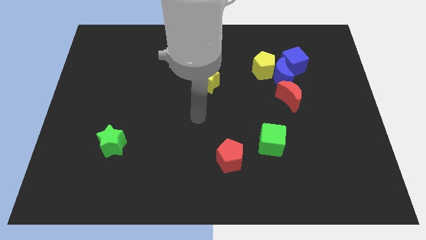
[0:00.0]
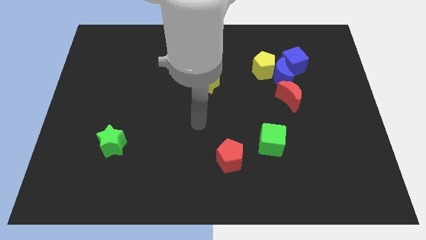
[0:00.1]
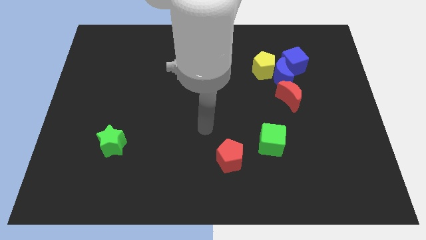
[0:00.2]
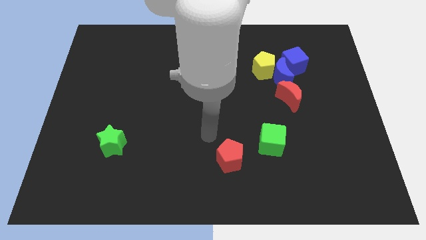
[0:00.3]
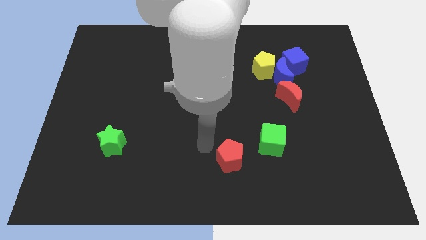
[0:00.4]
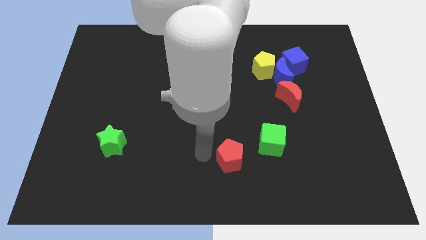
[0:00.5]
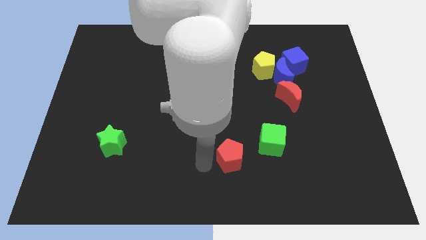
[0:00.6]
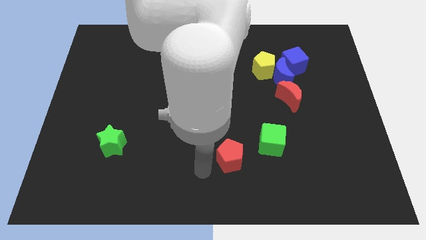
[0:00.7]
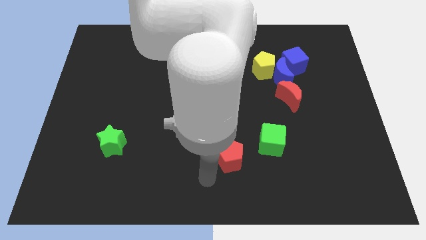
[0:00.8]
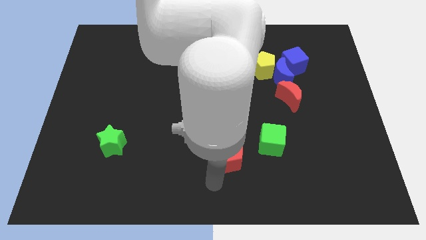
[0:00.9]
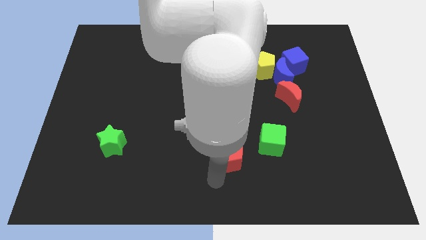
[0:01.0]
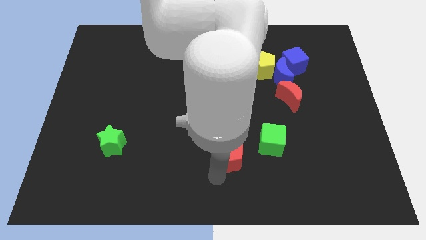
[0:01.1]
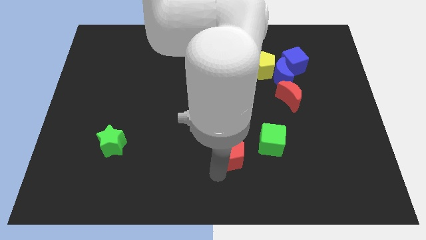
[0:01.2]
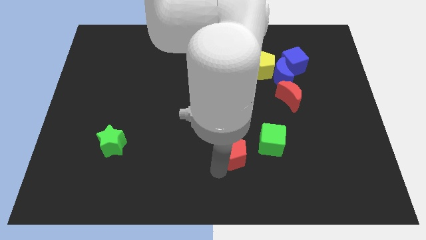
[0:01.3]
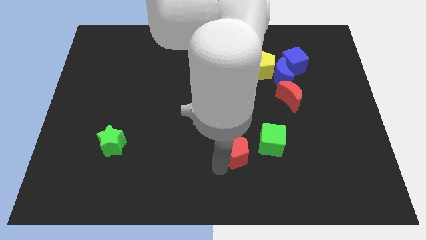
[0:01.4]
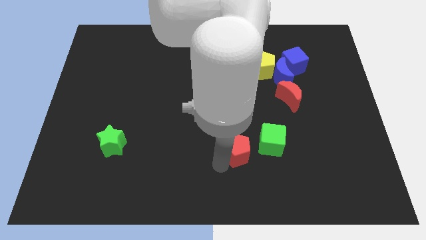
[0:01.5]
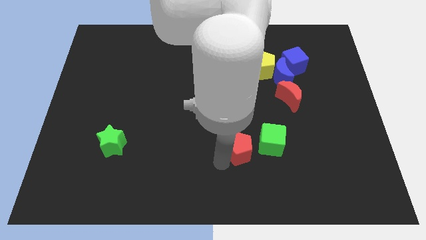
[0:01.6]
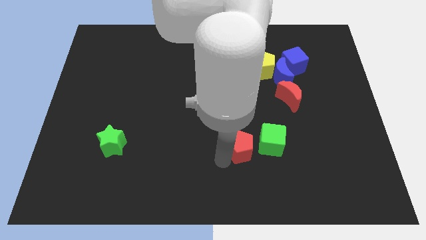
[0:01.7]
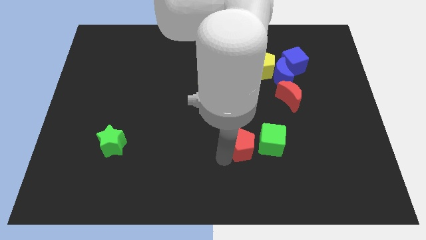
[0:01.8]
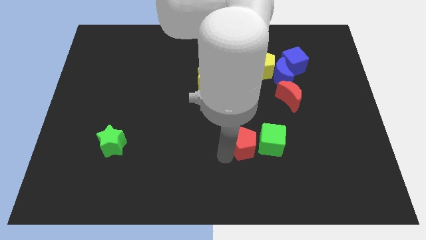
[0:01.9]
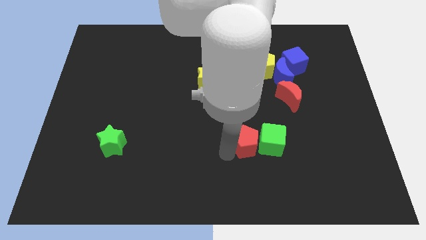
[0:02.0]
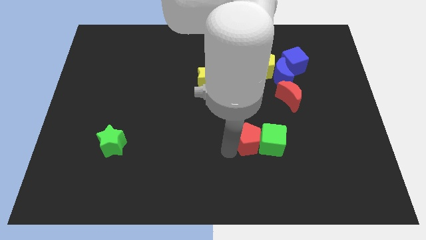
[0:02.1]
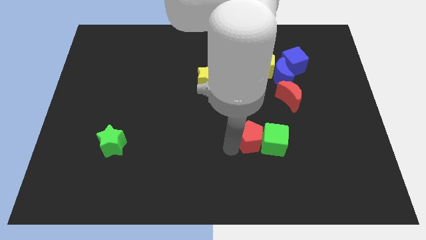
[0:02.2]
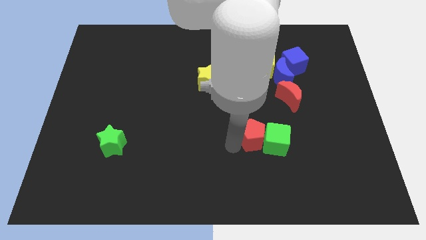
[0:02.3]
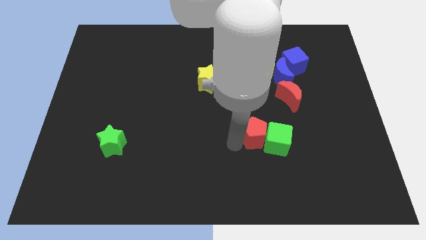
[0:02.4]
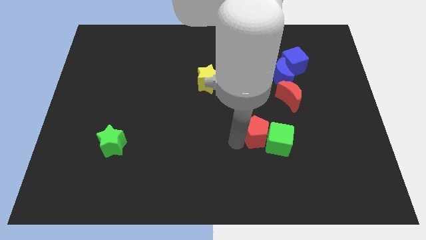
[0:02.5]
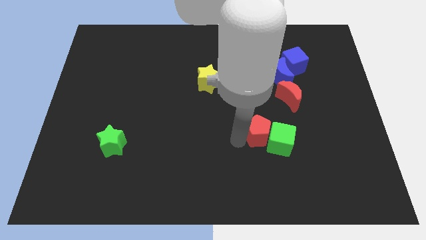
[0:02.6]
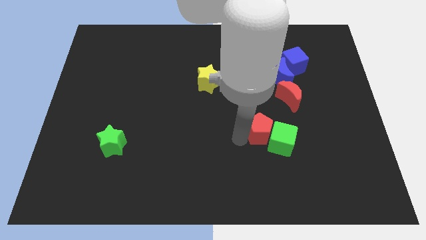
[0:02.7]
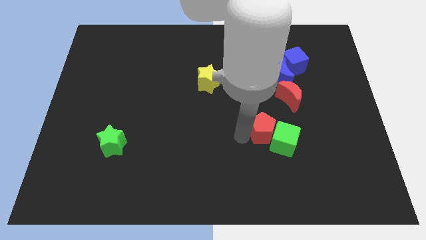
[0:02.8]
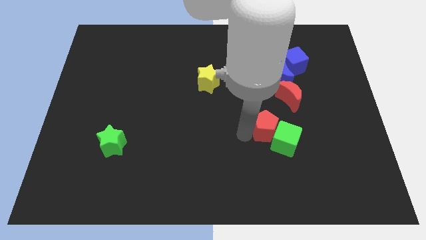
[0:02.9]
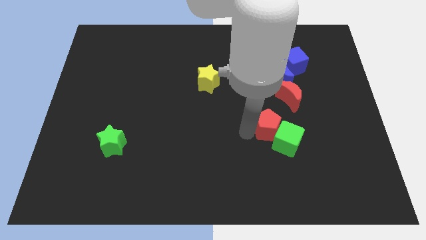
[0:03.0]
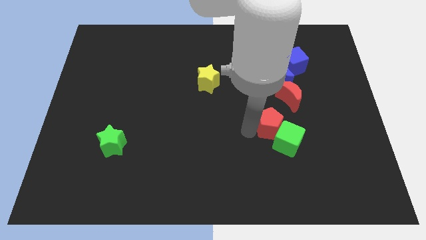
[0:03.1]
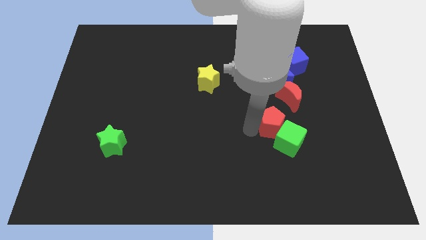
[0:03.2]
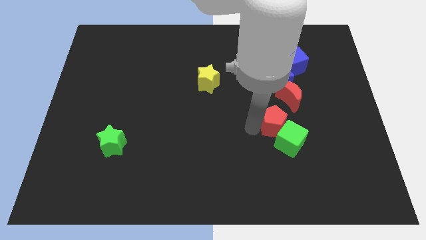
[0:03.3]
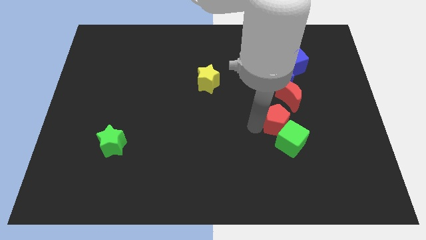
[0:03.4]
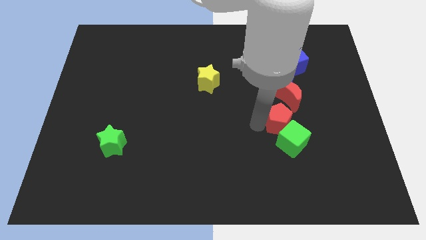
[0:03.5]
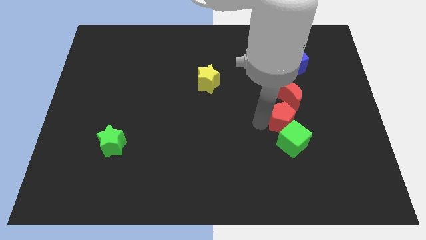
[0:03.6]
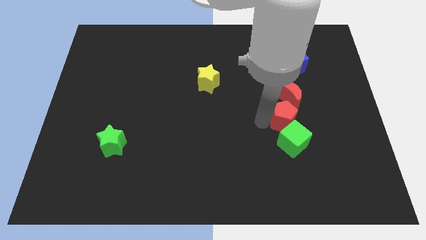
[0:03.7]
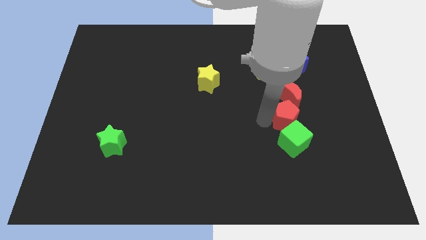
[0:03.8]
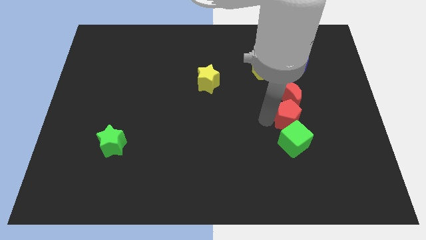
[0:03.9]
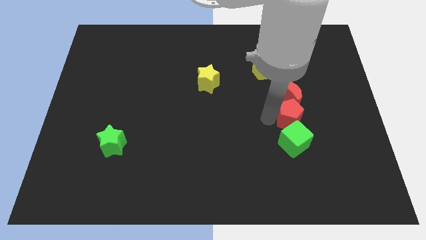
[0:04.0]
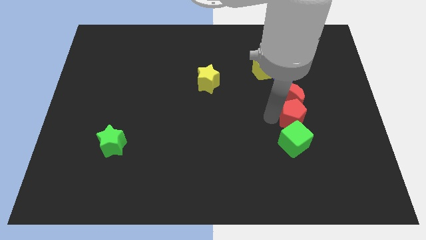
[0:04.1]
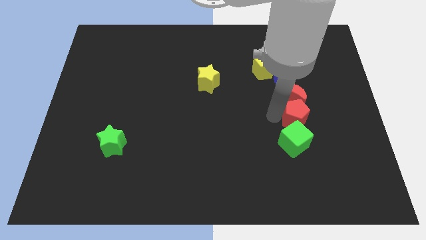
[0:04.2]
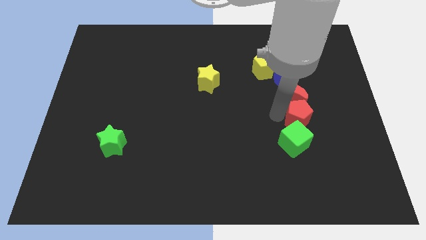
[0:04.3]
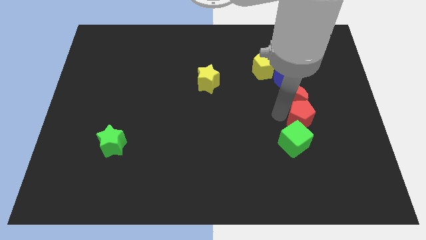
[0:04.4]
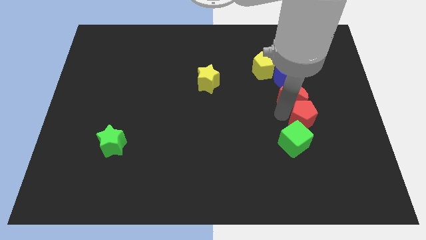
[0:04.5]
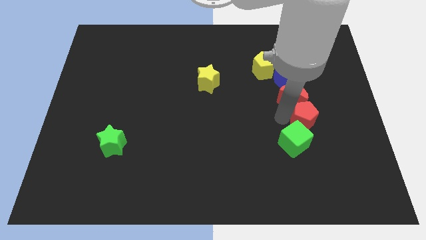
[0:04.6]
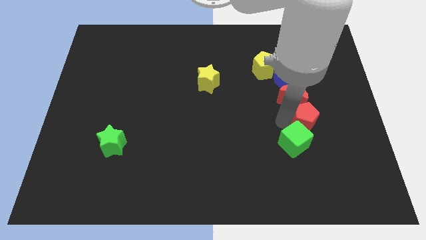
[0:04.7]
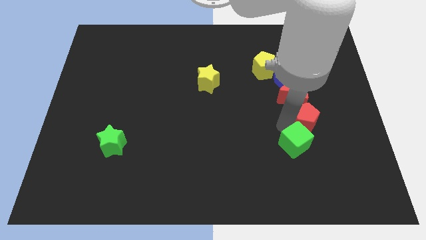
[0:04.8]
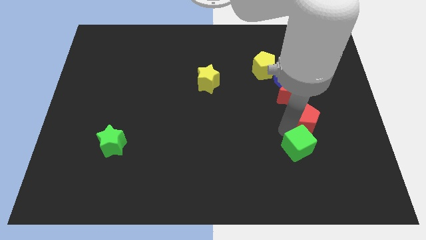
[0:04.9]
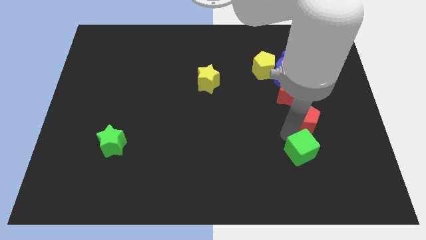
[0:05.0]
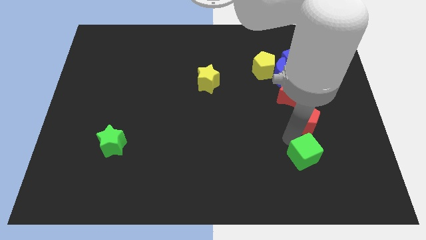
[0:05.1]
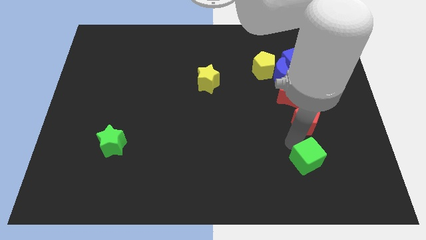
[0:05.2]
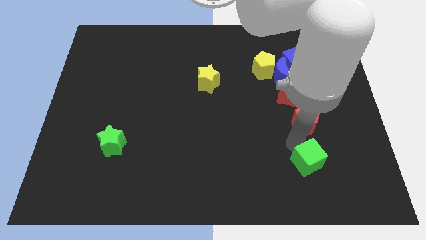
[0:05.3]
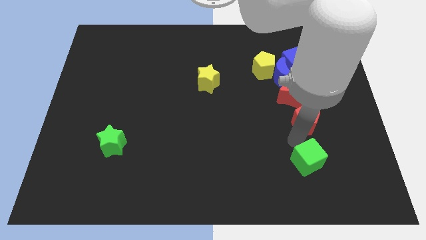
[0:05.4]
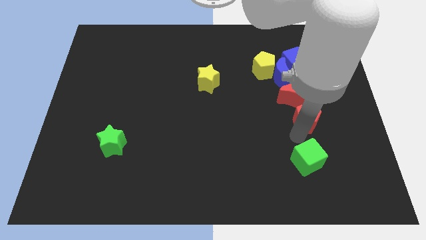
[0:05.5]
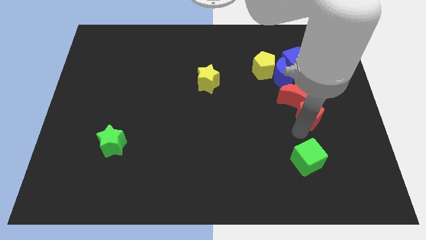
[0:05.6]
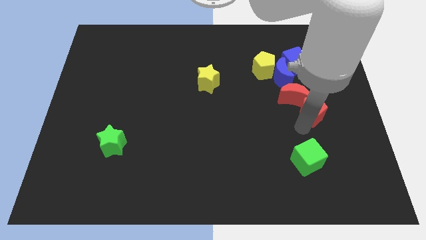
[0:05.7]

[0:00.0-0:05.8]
slide the red pentagon up and to the right

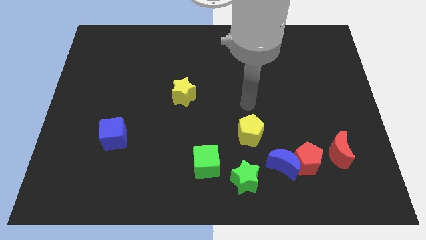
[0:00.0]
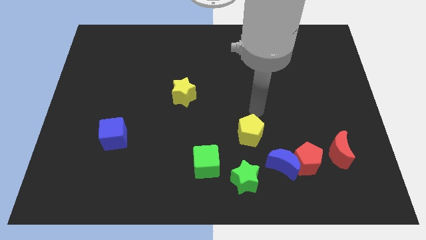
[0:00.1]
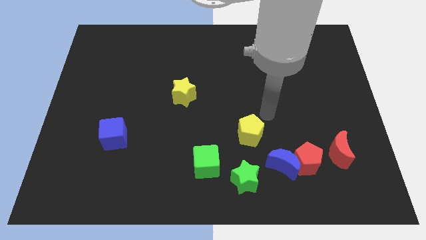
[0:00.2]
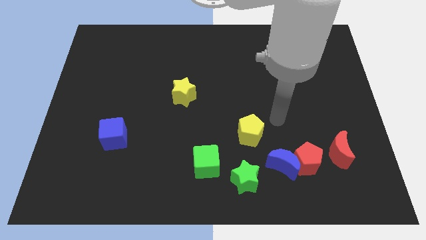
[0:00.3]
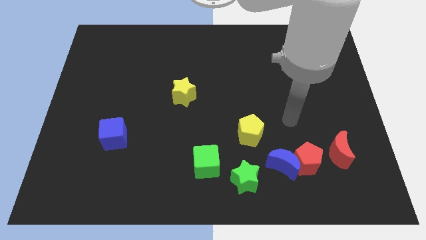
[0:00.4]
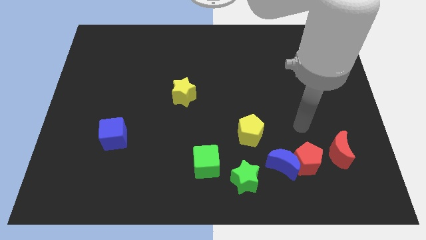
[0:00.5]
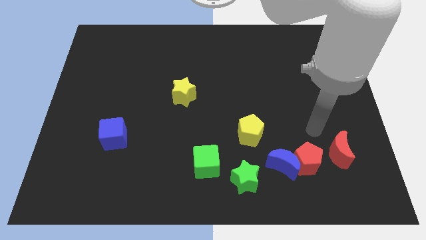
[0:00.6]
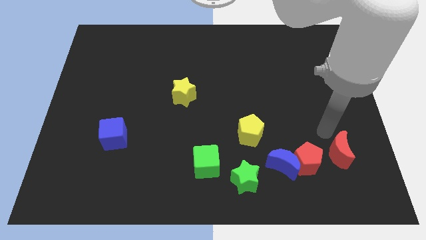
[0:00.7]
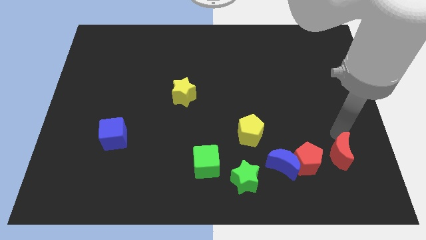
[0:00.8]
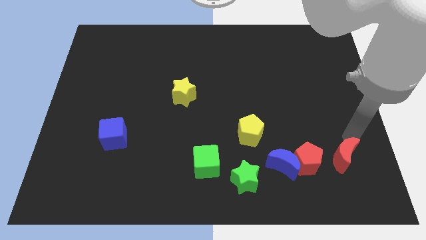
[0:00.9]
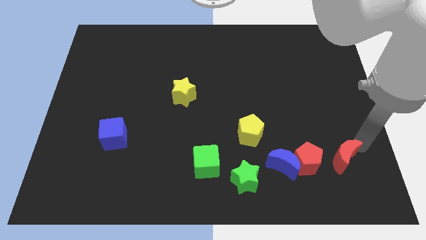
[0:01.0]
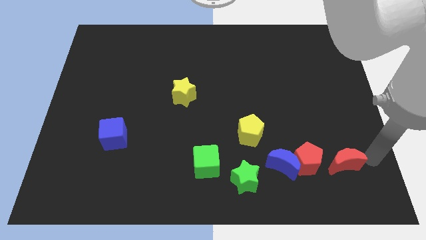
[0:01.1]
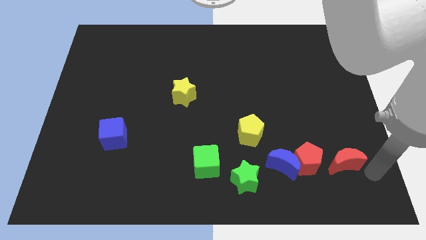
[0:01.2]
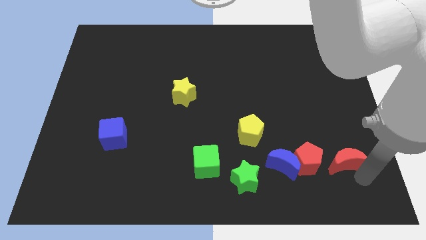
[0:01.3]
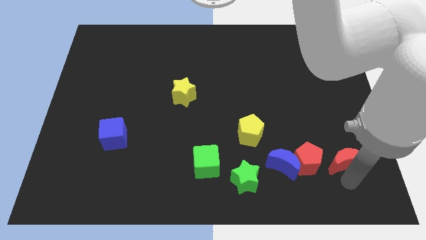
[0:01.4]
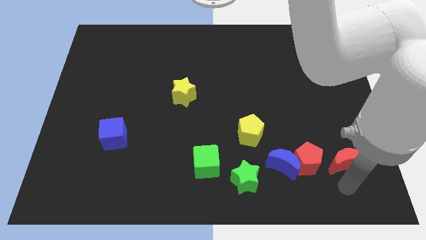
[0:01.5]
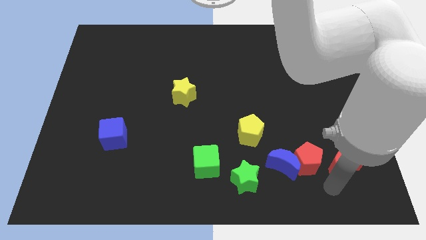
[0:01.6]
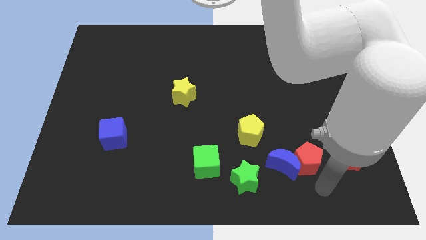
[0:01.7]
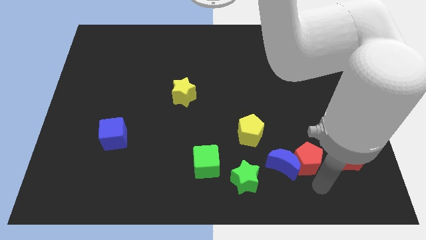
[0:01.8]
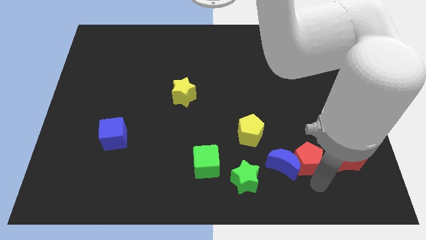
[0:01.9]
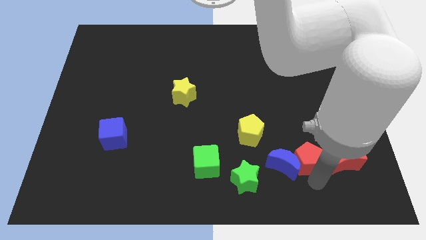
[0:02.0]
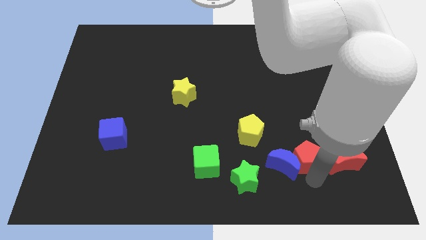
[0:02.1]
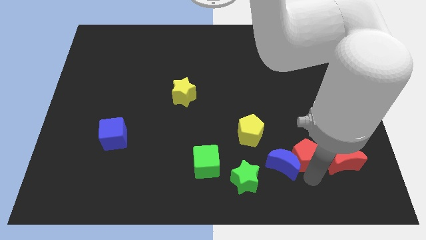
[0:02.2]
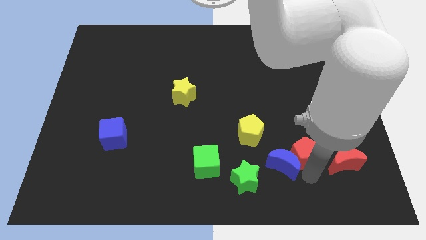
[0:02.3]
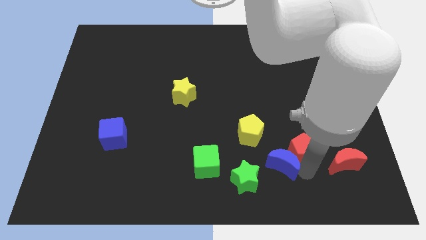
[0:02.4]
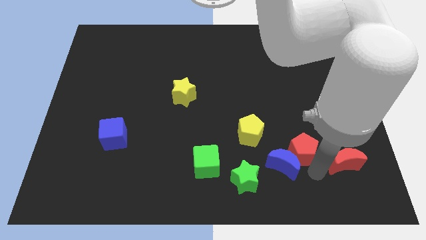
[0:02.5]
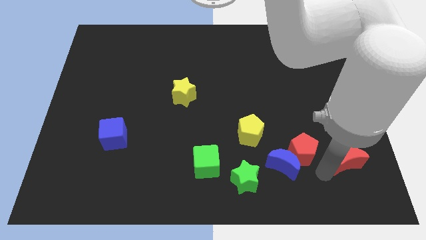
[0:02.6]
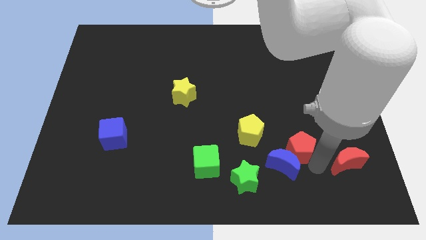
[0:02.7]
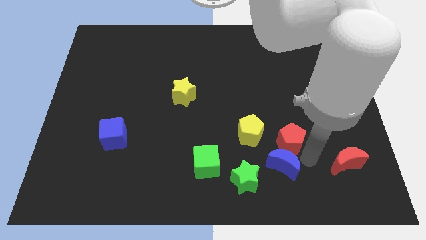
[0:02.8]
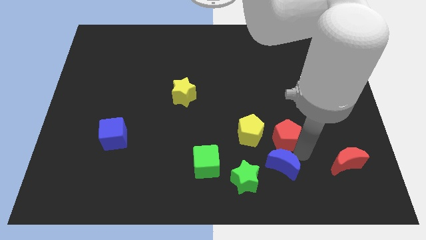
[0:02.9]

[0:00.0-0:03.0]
move the red pentagon upwards and then to the left a bit
